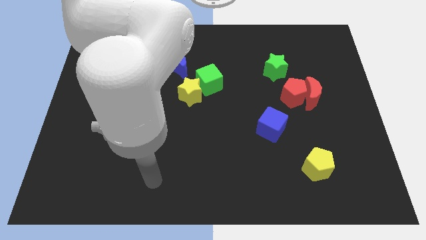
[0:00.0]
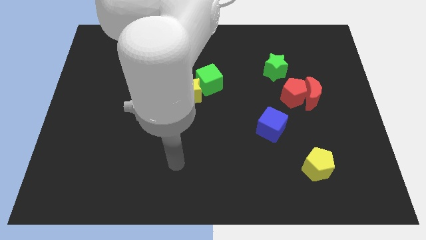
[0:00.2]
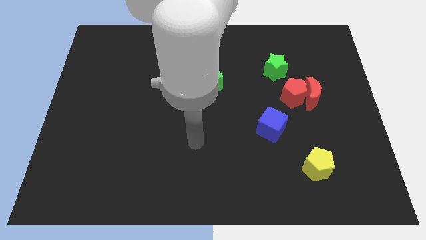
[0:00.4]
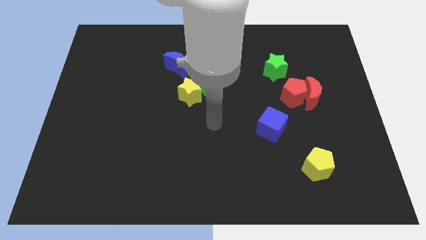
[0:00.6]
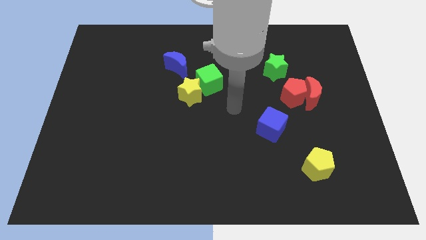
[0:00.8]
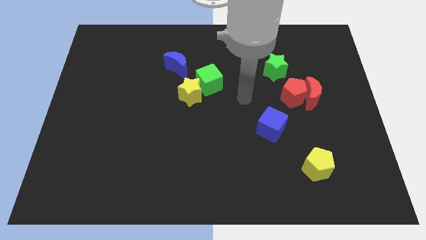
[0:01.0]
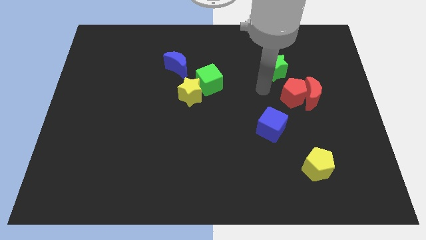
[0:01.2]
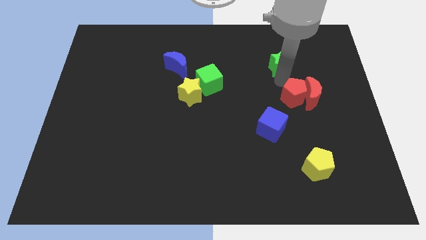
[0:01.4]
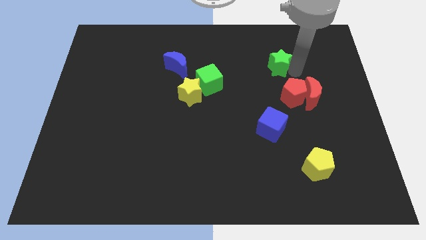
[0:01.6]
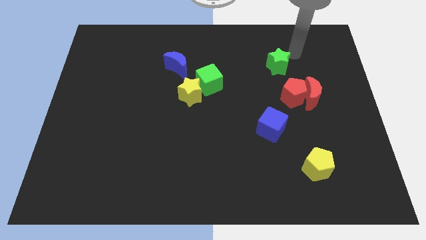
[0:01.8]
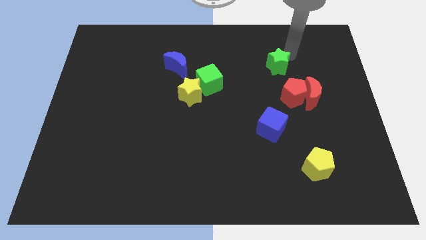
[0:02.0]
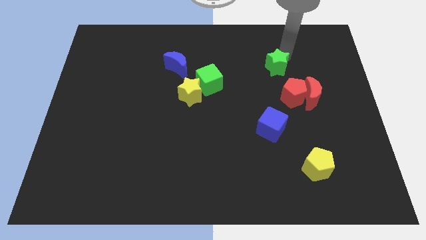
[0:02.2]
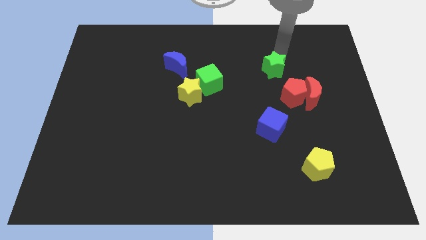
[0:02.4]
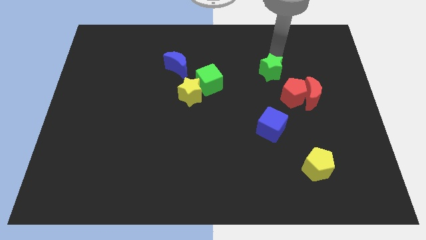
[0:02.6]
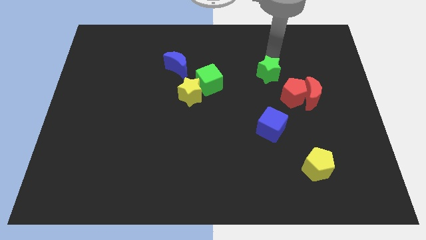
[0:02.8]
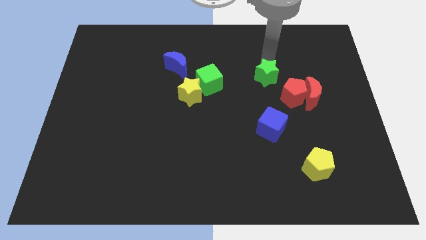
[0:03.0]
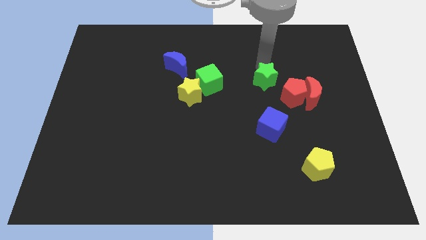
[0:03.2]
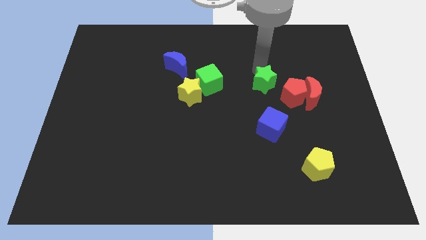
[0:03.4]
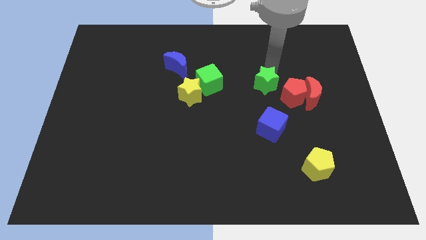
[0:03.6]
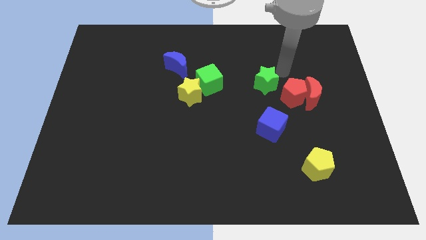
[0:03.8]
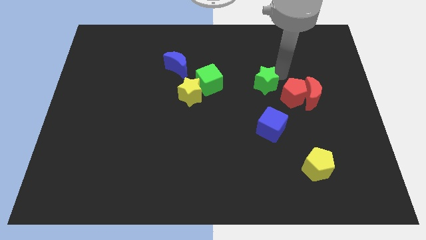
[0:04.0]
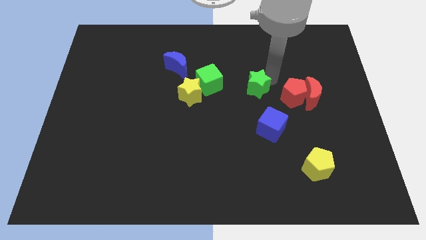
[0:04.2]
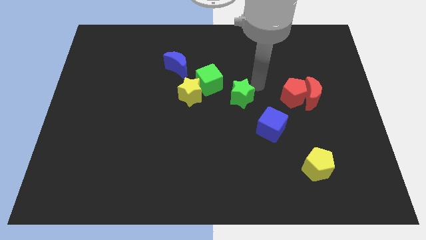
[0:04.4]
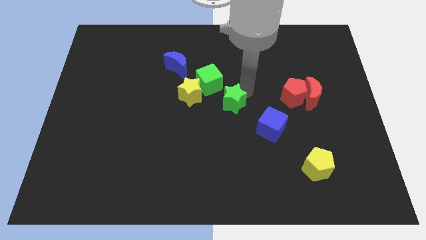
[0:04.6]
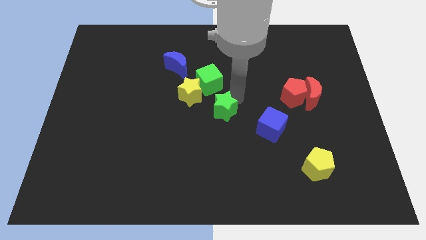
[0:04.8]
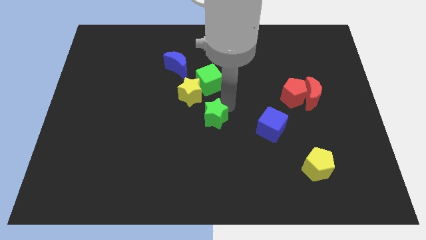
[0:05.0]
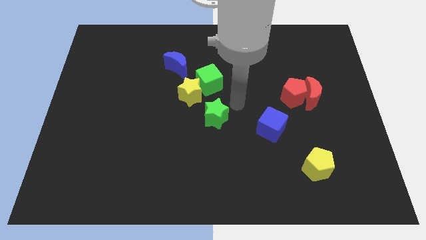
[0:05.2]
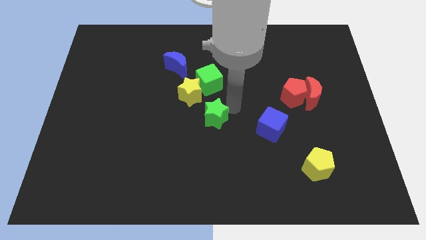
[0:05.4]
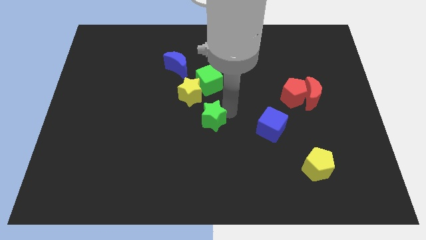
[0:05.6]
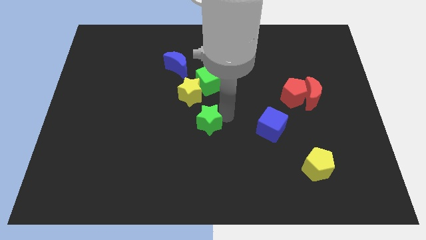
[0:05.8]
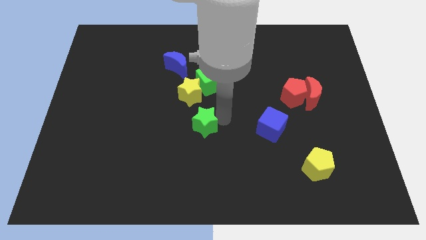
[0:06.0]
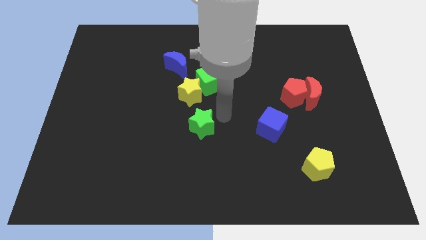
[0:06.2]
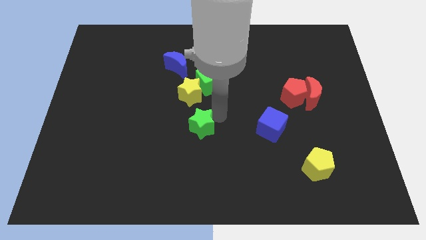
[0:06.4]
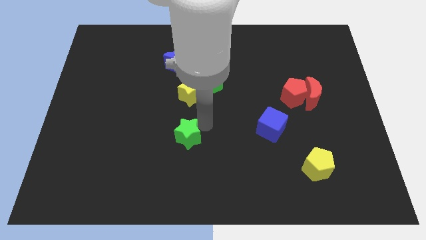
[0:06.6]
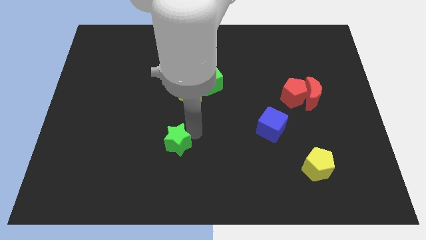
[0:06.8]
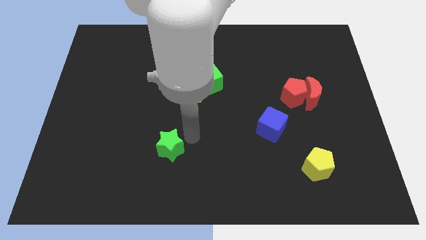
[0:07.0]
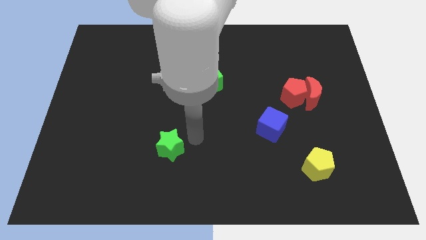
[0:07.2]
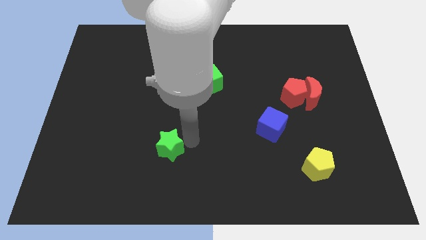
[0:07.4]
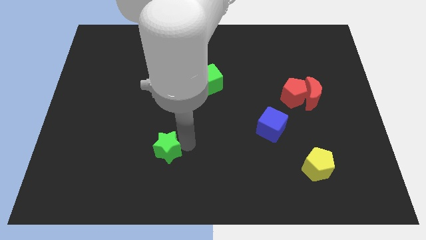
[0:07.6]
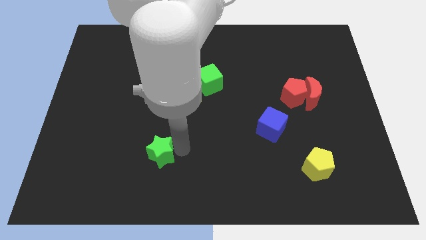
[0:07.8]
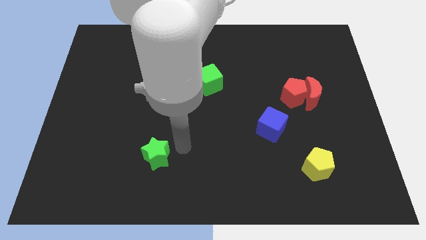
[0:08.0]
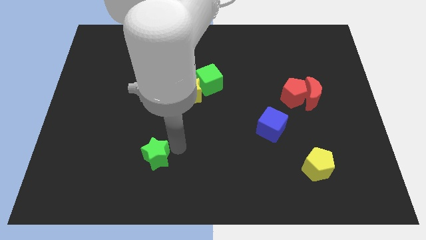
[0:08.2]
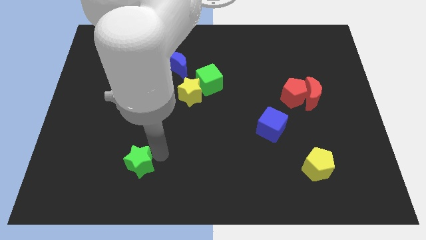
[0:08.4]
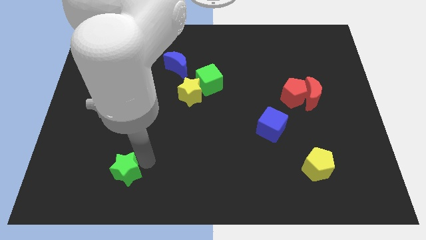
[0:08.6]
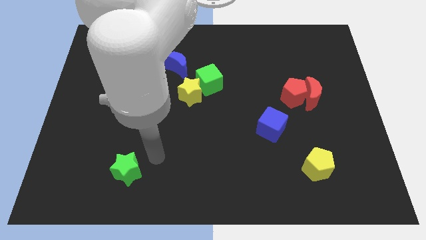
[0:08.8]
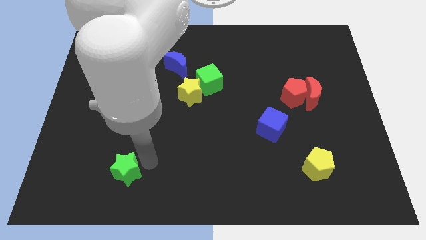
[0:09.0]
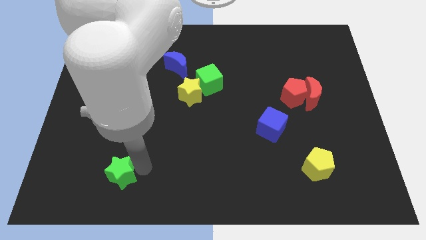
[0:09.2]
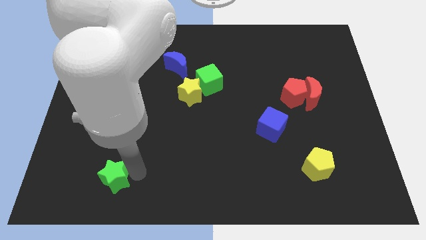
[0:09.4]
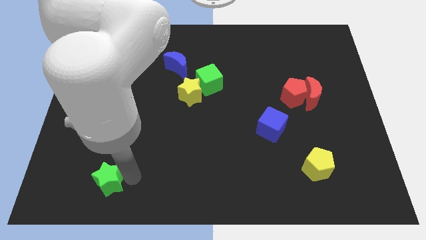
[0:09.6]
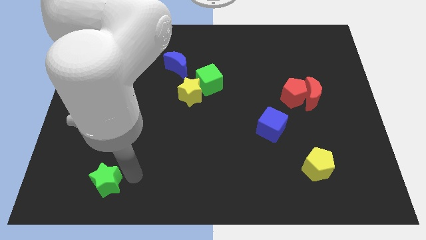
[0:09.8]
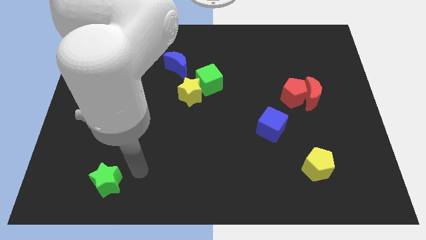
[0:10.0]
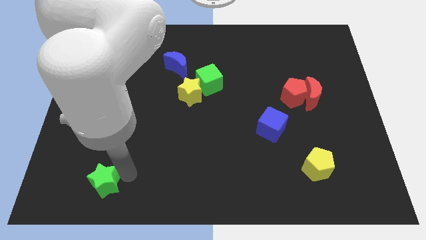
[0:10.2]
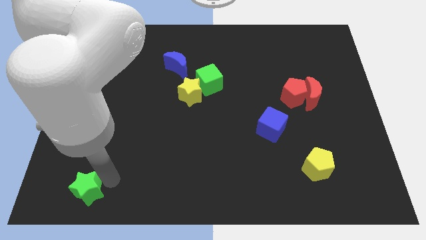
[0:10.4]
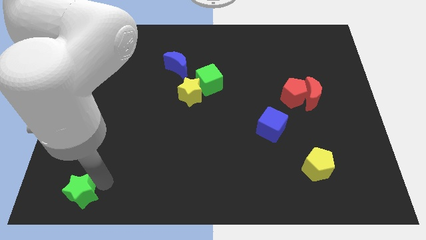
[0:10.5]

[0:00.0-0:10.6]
push the green star to the bottom left of the board

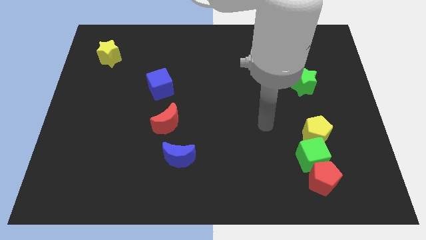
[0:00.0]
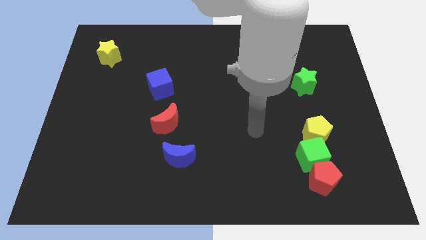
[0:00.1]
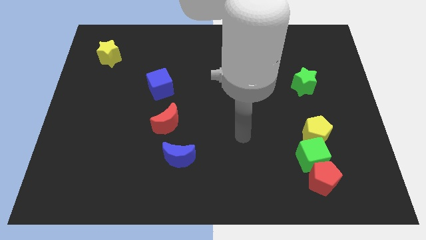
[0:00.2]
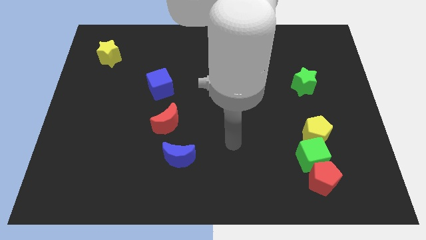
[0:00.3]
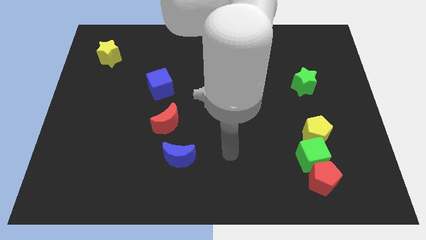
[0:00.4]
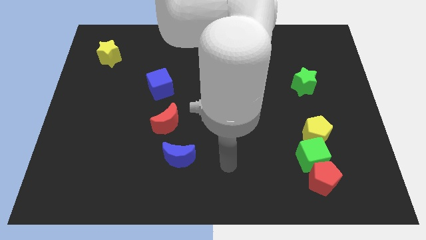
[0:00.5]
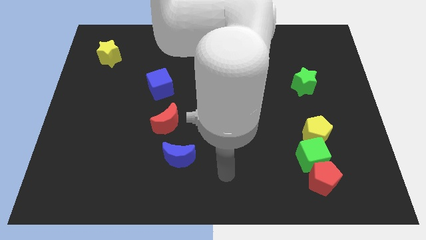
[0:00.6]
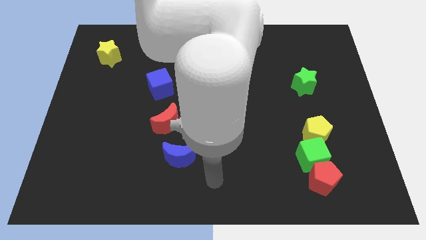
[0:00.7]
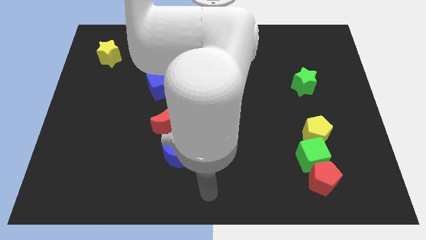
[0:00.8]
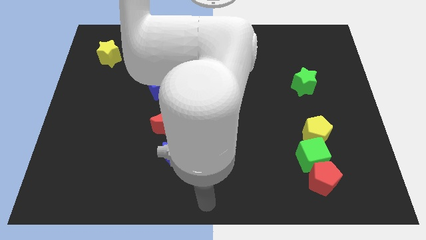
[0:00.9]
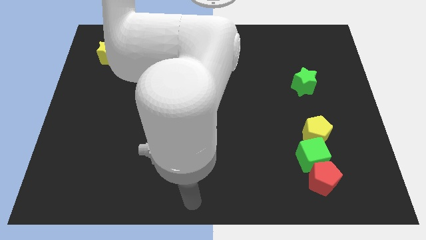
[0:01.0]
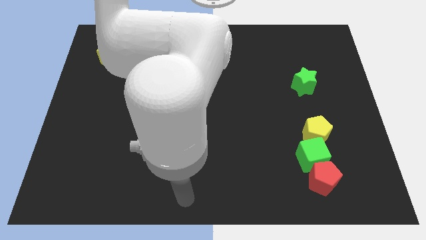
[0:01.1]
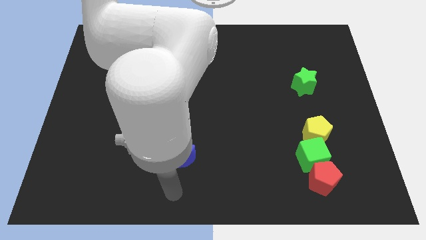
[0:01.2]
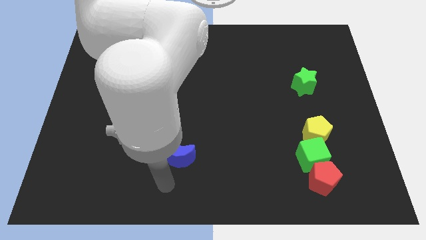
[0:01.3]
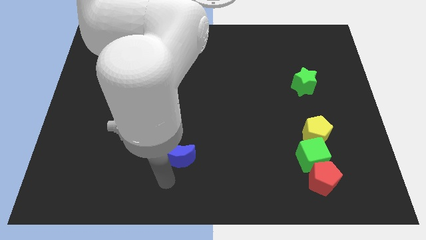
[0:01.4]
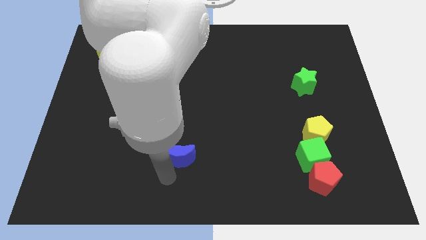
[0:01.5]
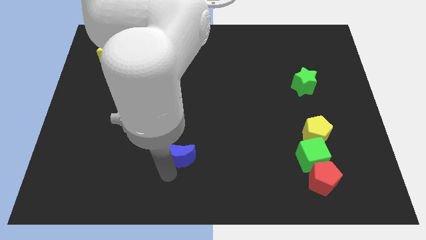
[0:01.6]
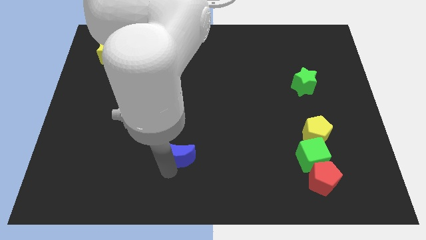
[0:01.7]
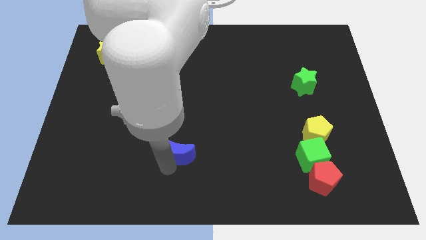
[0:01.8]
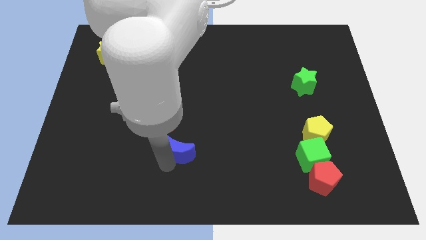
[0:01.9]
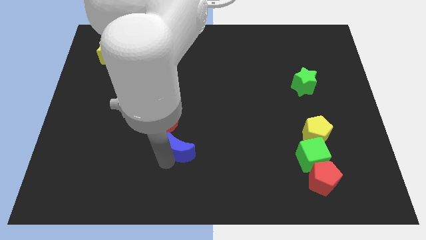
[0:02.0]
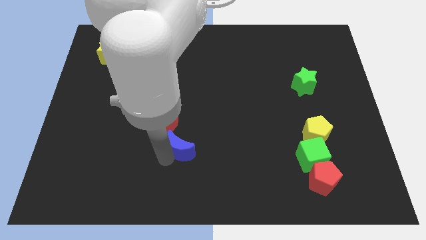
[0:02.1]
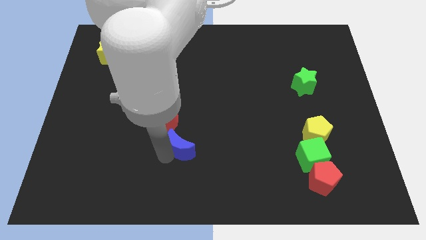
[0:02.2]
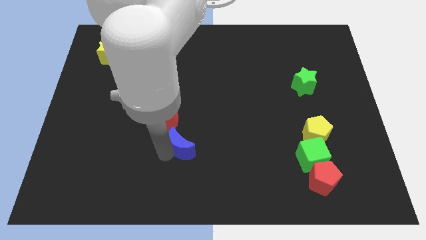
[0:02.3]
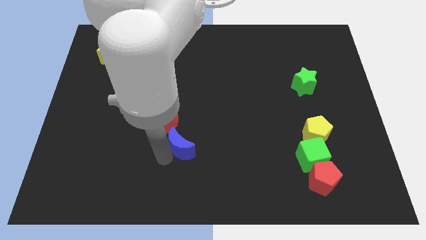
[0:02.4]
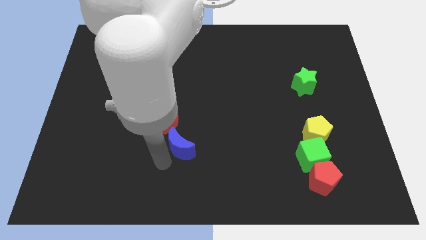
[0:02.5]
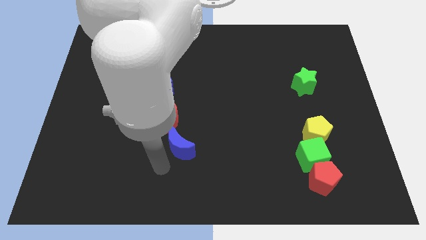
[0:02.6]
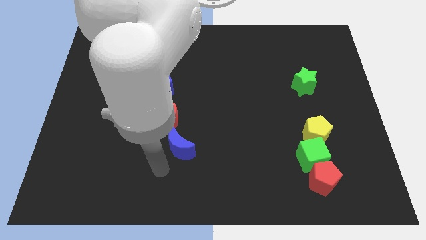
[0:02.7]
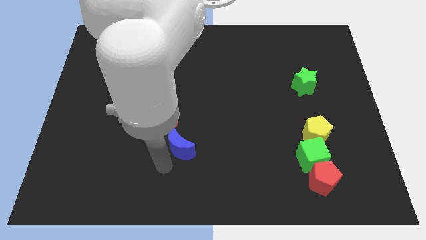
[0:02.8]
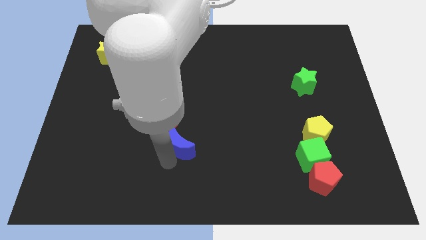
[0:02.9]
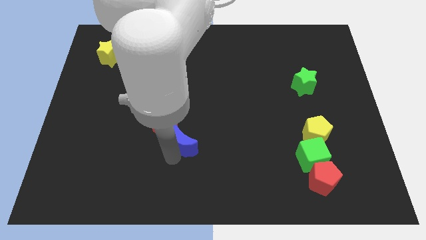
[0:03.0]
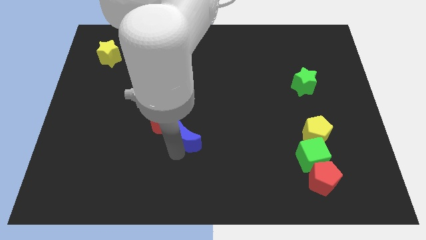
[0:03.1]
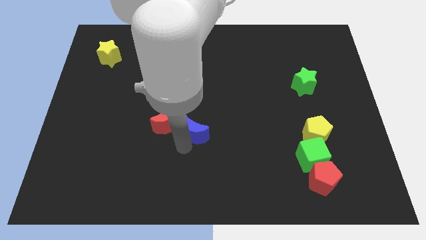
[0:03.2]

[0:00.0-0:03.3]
slide the blue moon to the middle of the board
